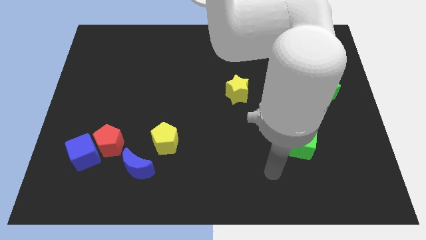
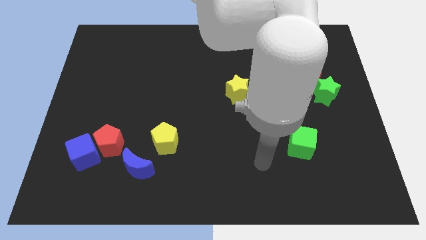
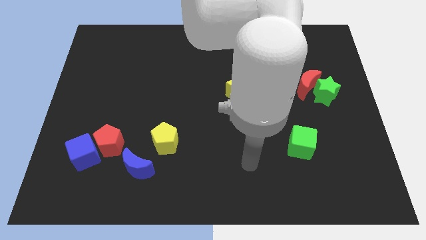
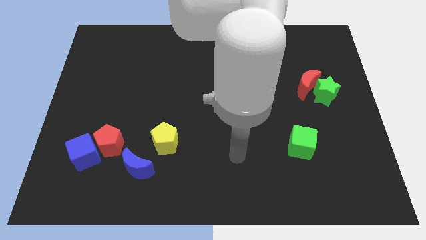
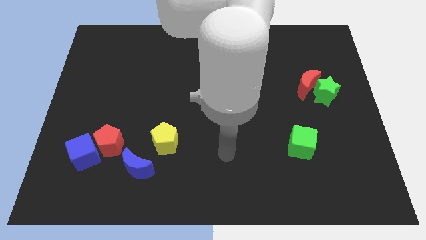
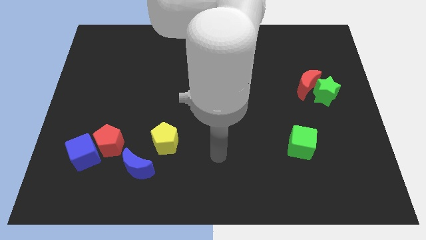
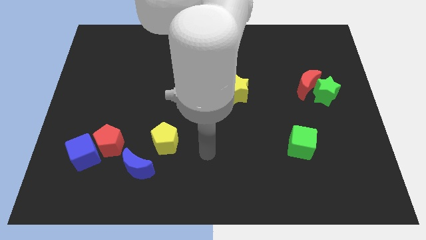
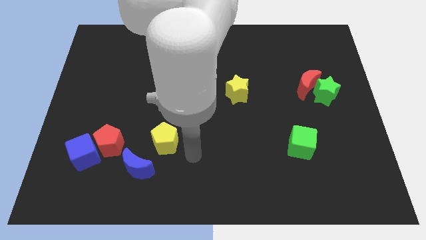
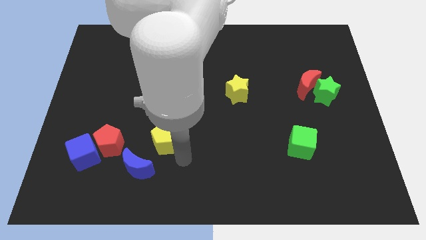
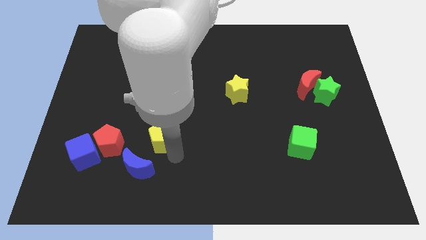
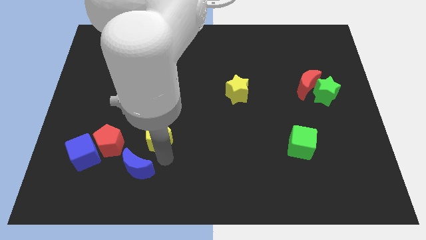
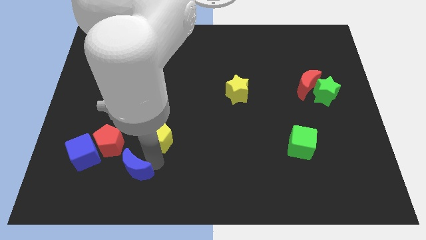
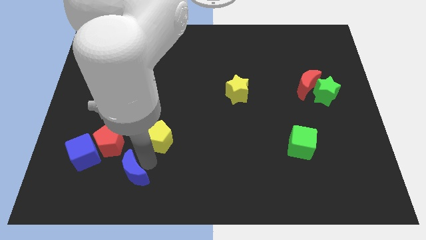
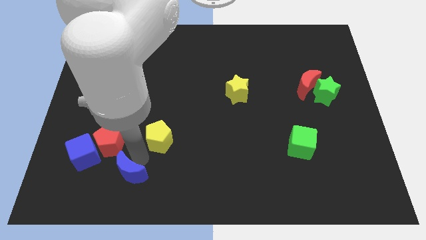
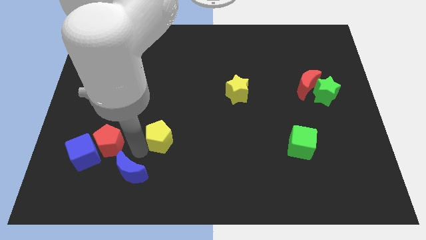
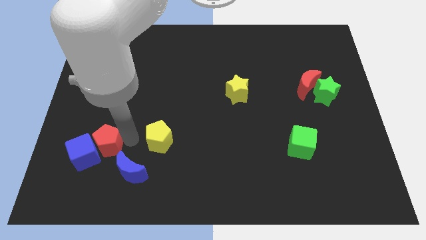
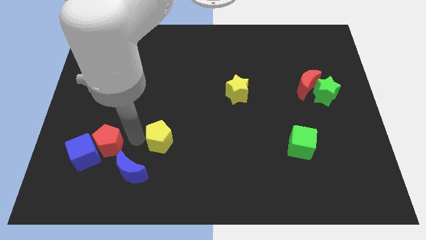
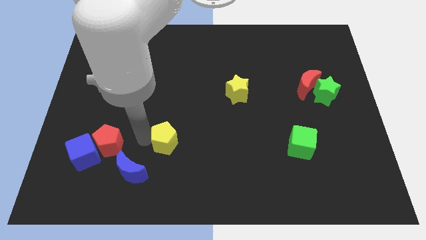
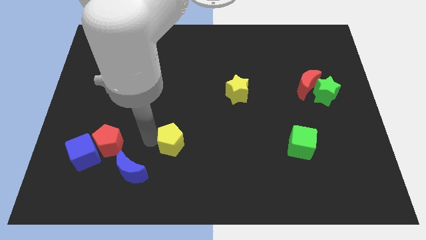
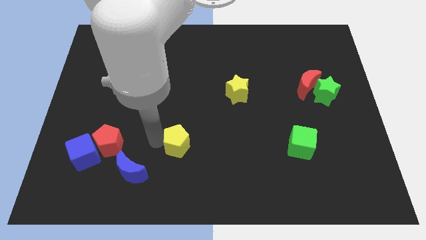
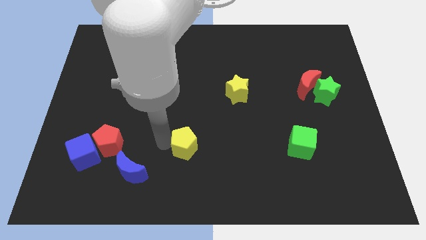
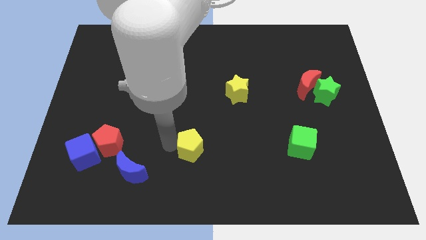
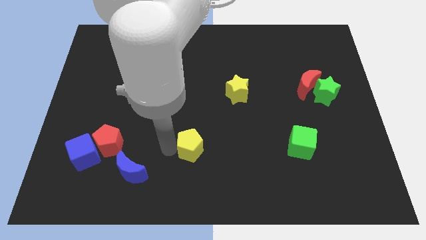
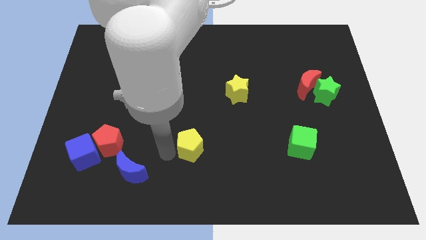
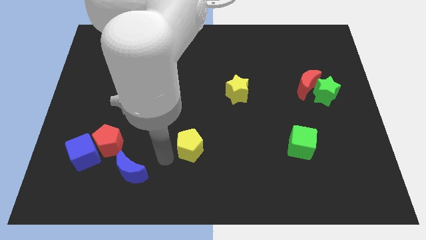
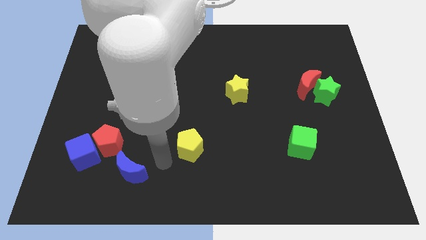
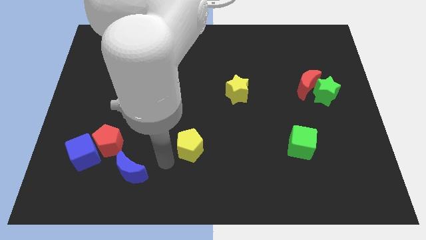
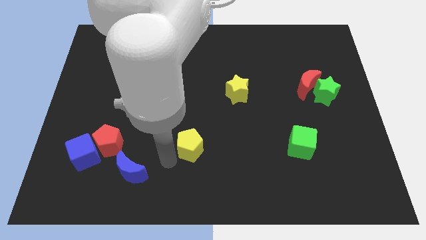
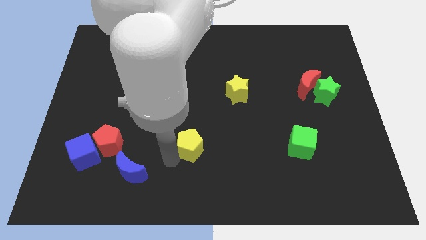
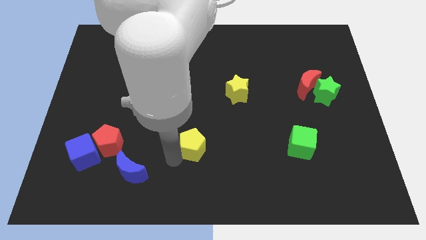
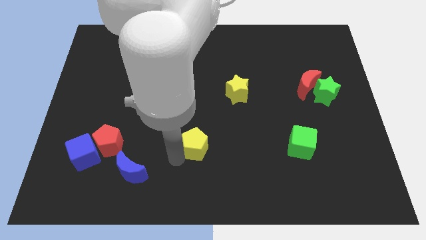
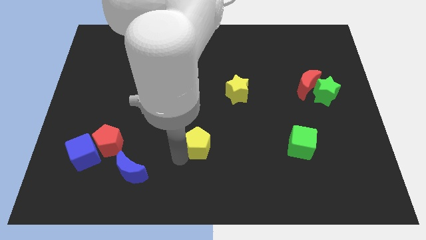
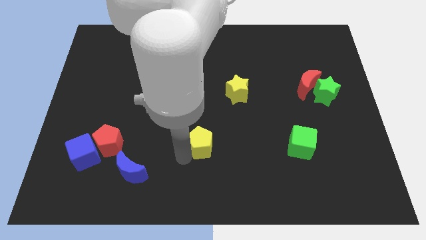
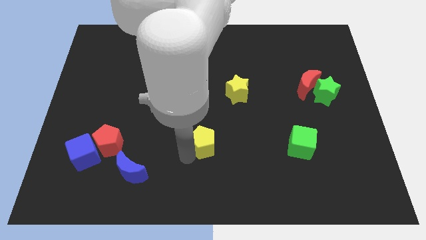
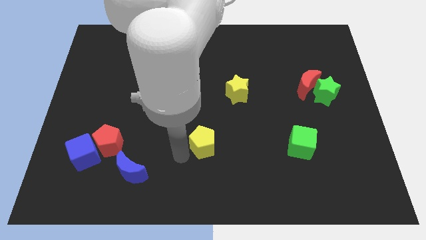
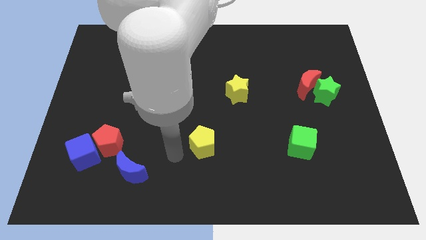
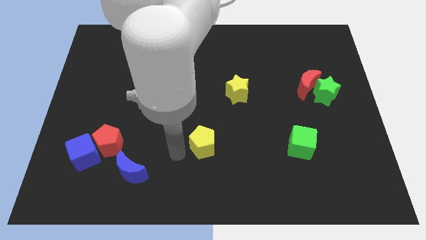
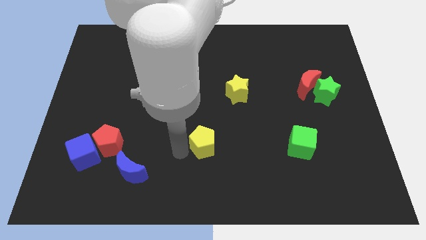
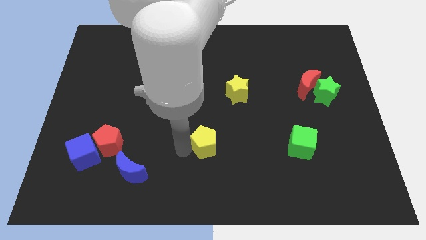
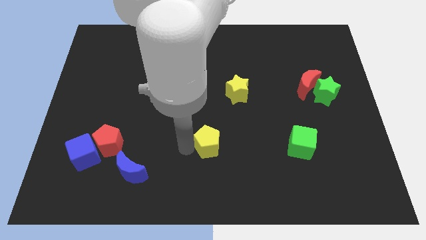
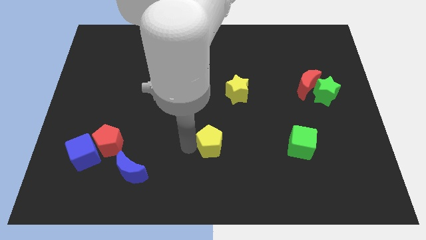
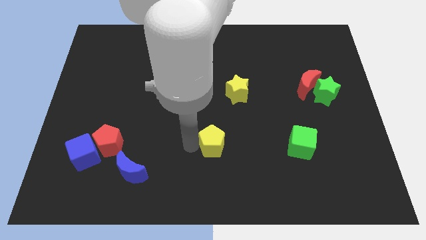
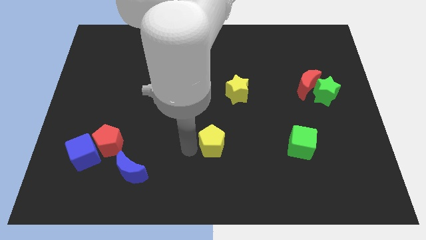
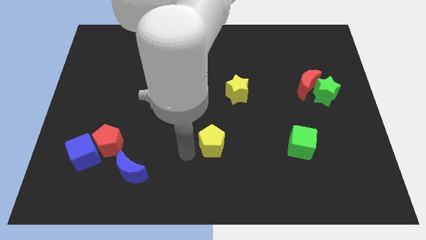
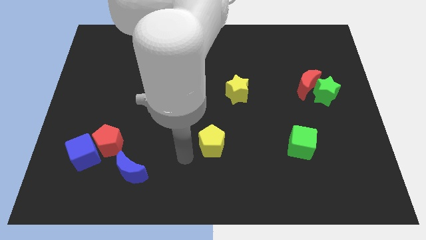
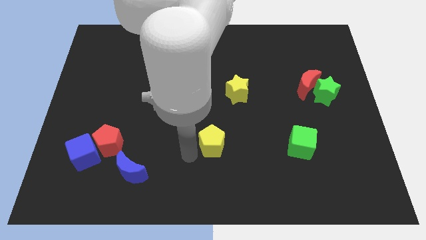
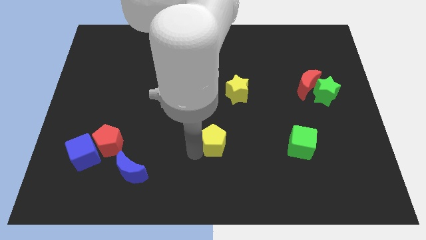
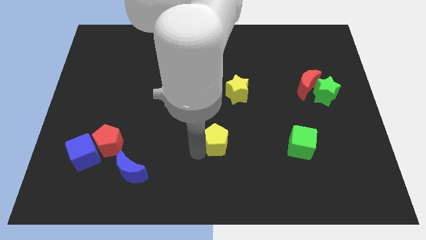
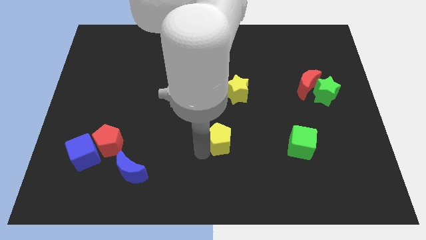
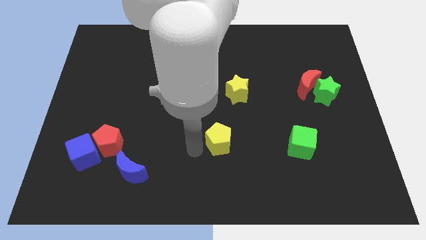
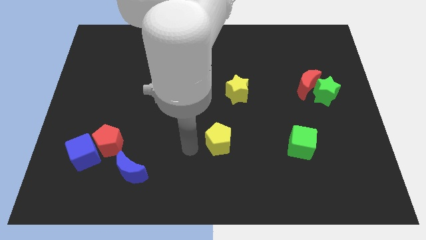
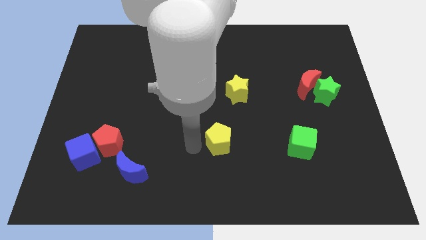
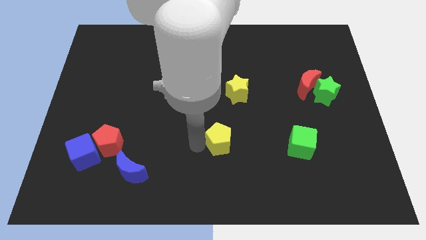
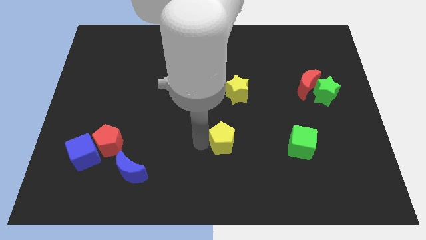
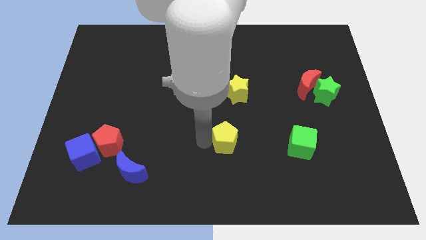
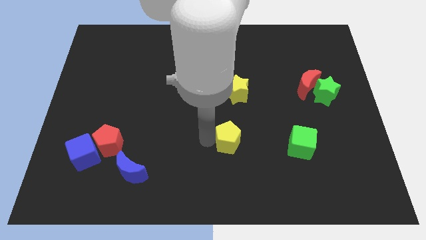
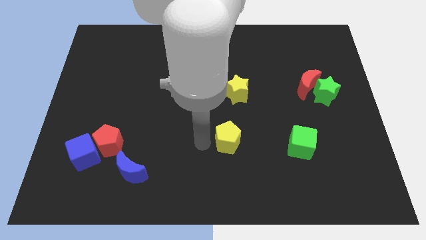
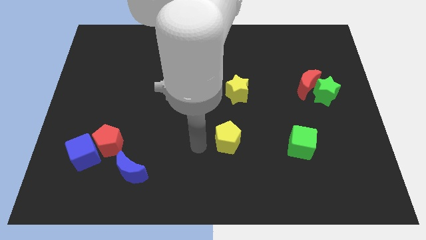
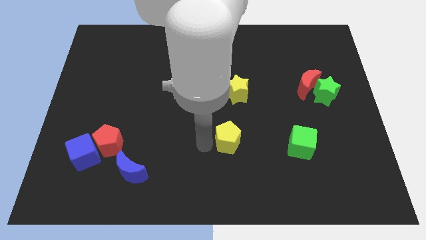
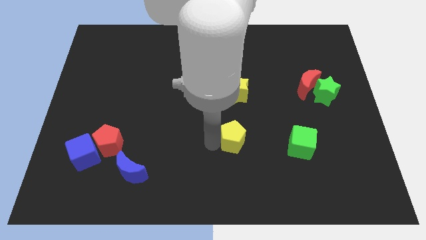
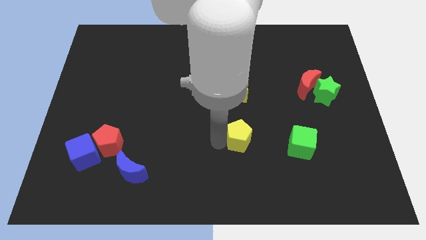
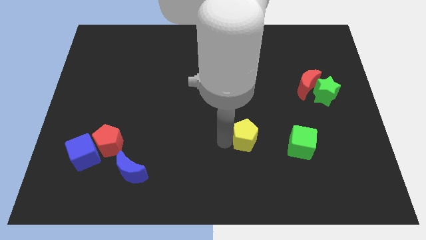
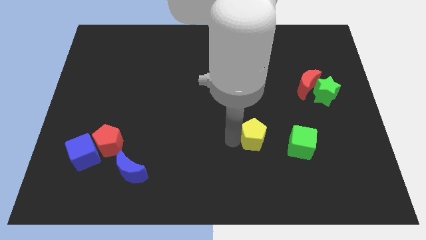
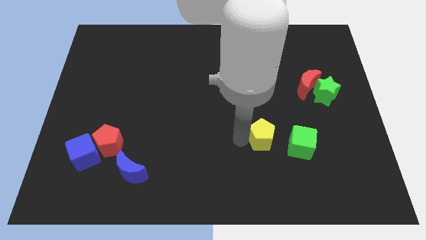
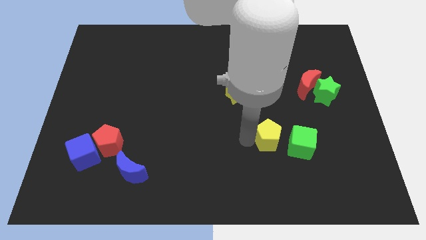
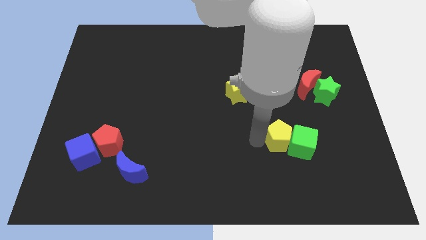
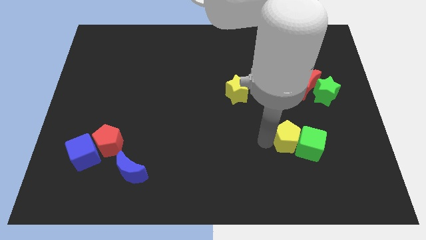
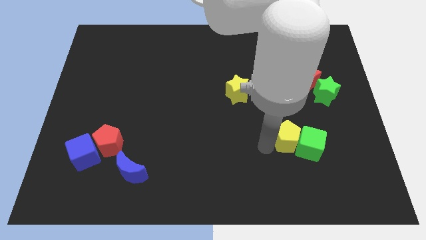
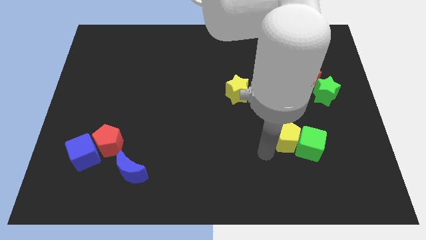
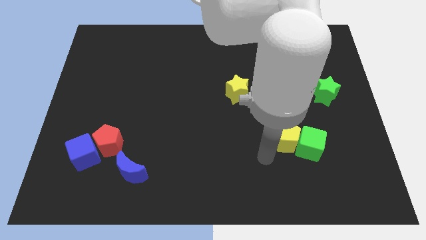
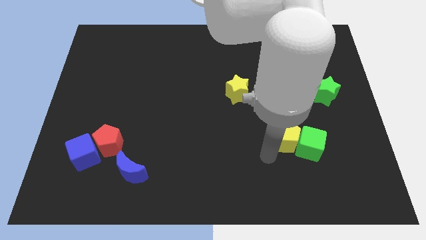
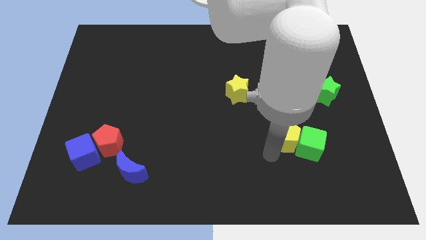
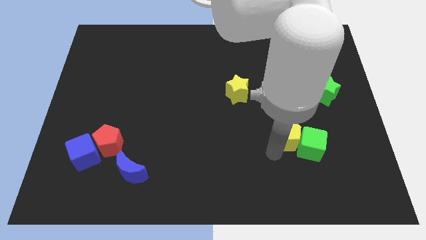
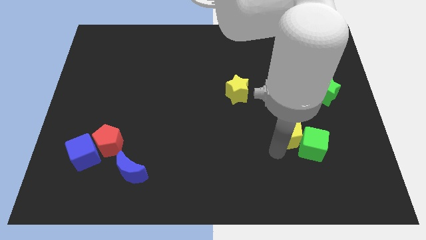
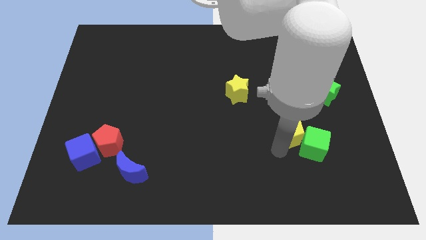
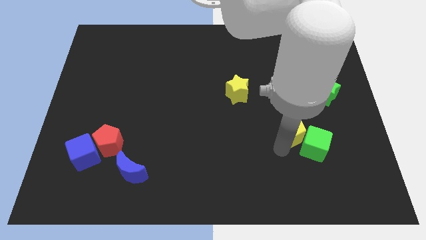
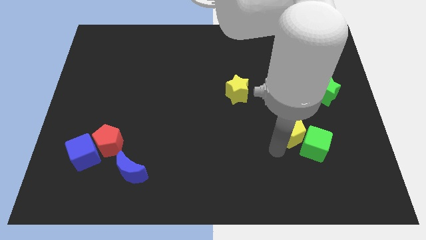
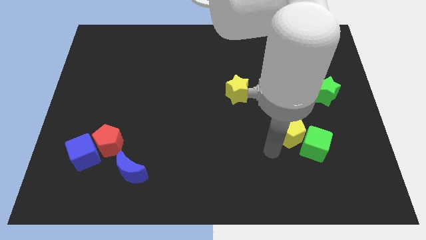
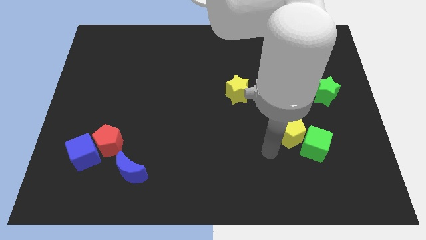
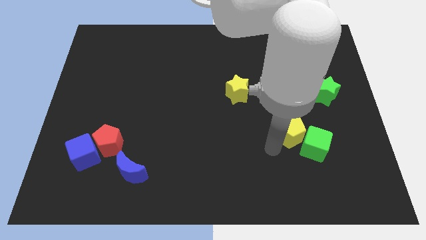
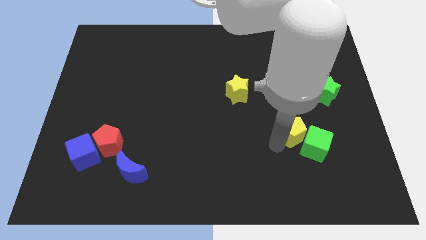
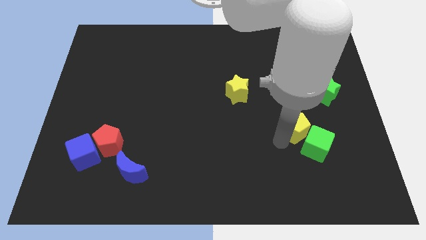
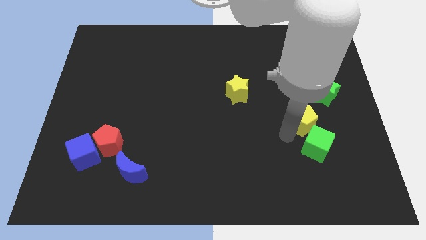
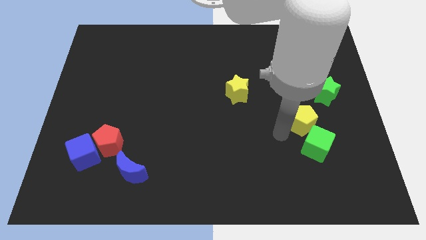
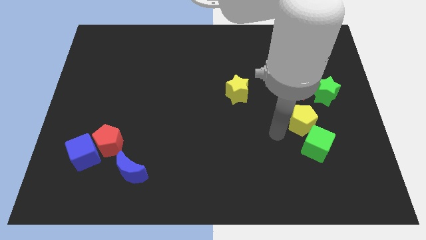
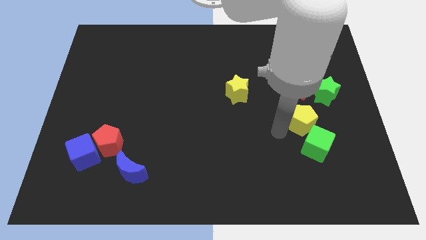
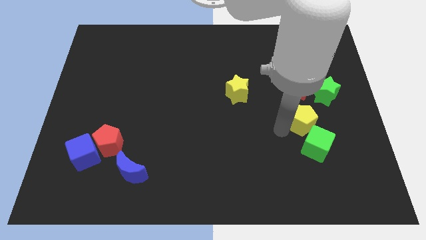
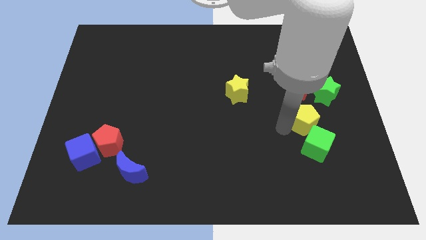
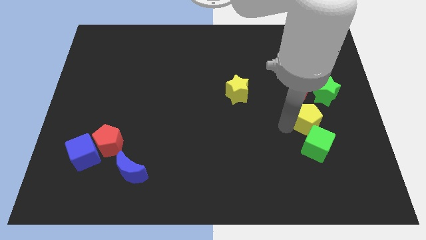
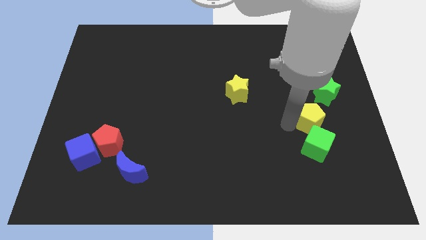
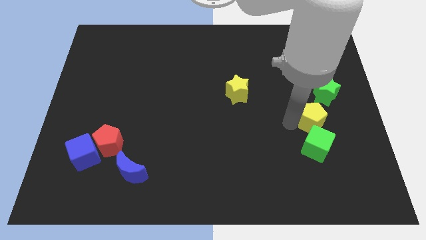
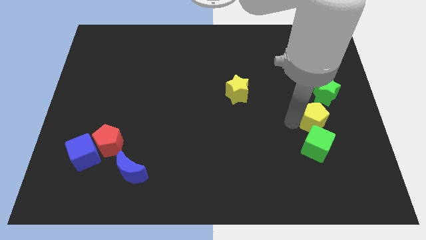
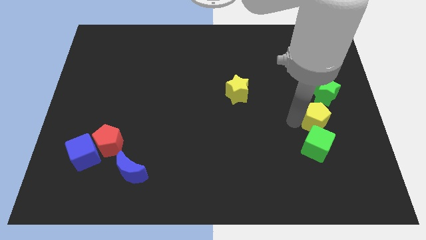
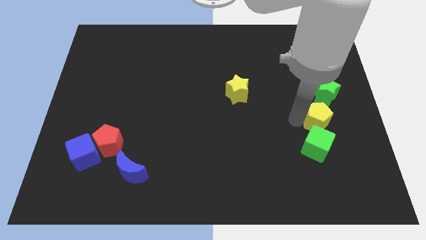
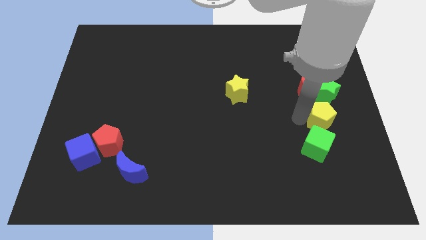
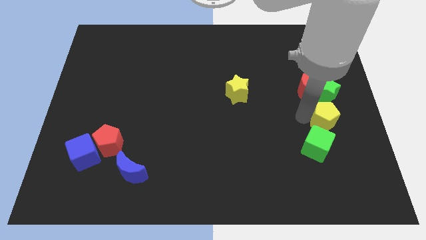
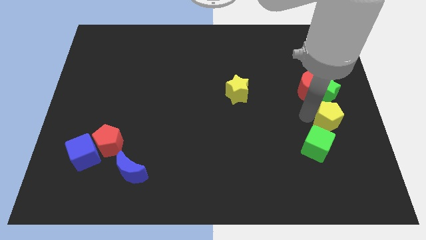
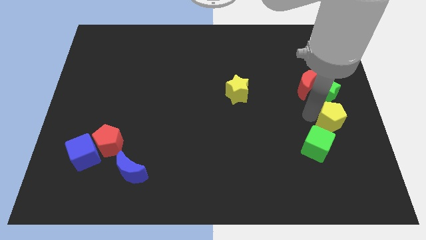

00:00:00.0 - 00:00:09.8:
put the yellow pentagon to the center right
